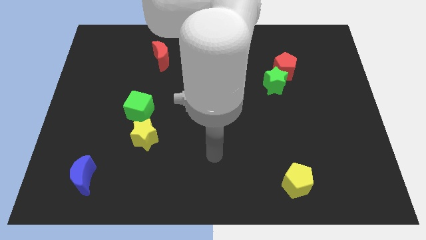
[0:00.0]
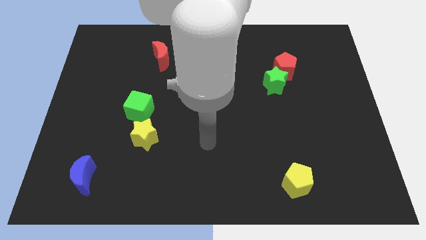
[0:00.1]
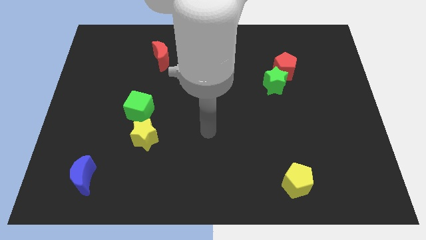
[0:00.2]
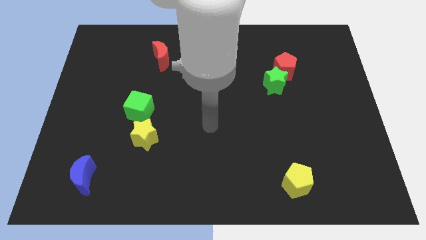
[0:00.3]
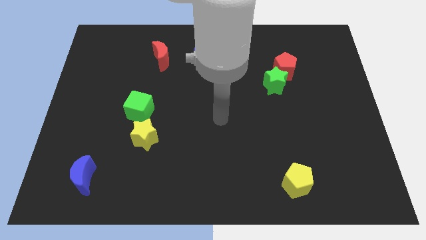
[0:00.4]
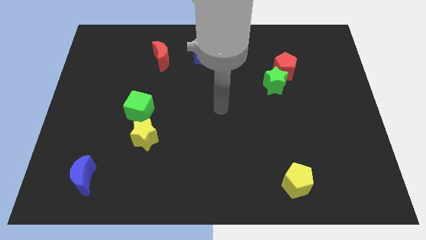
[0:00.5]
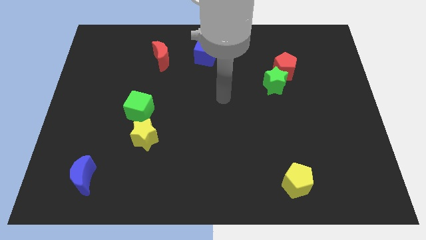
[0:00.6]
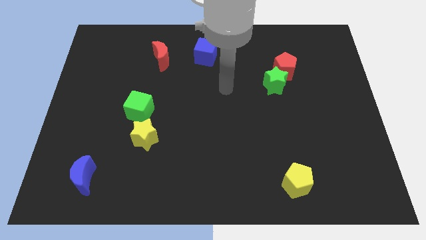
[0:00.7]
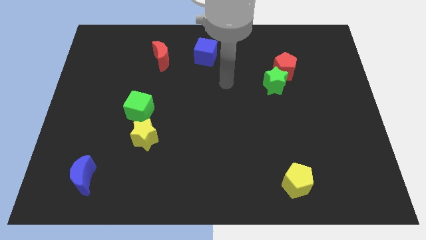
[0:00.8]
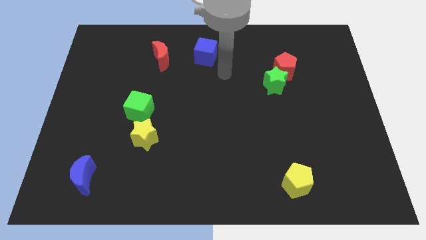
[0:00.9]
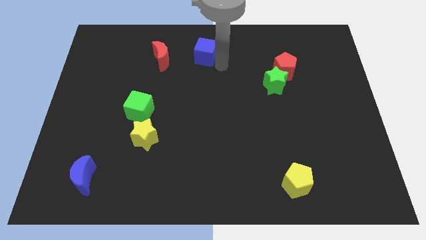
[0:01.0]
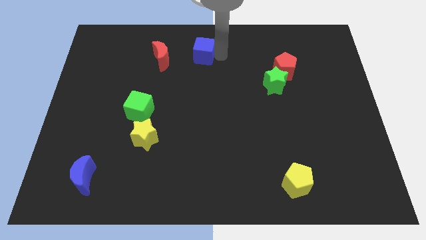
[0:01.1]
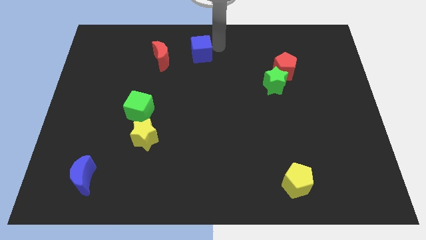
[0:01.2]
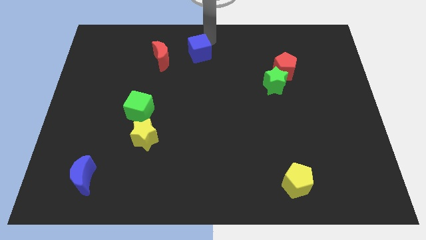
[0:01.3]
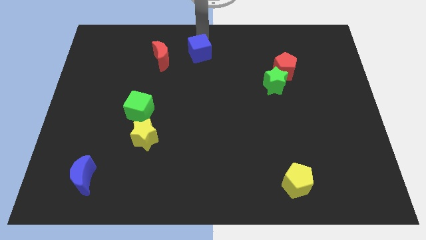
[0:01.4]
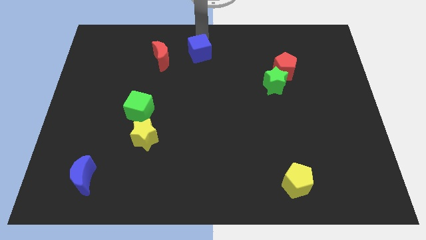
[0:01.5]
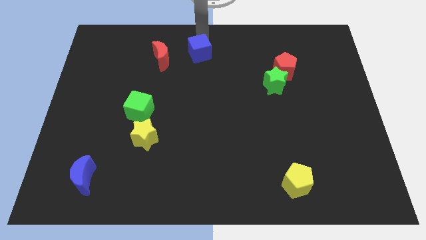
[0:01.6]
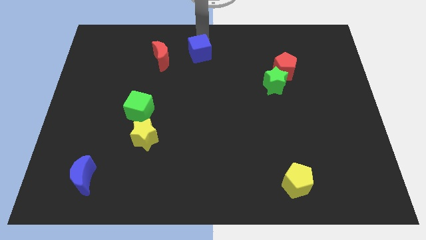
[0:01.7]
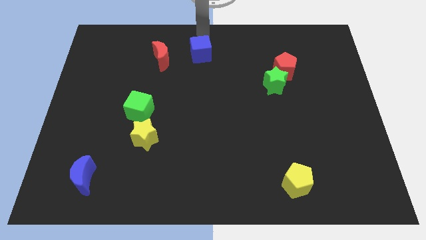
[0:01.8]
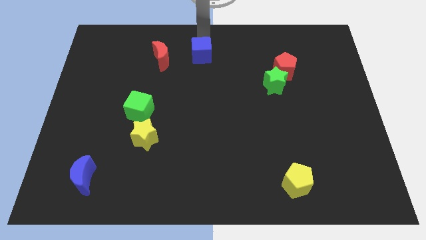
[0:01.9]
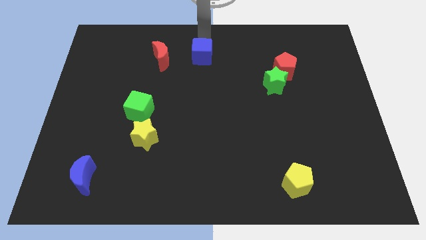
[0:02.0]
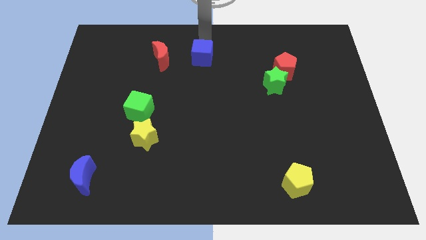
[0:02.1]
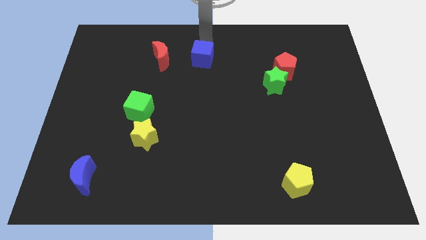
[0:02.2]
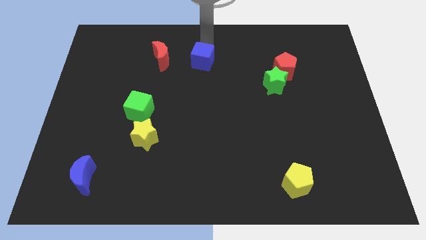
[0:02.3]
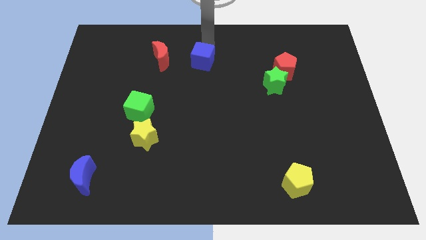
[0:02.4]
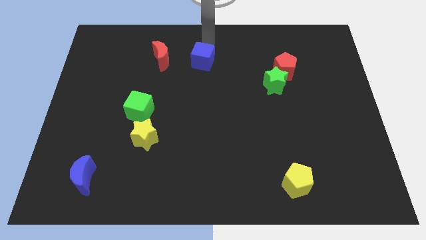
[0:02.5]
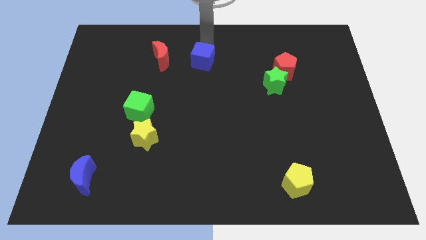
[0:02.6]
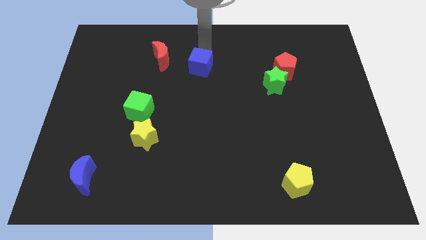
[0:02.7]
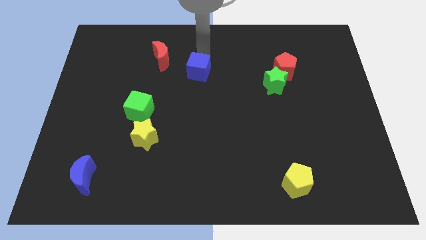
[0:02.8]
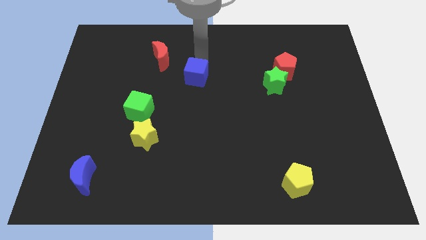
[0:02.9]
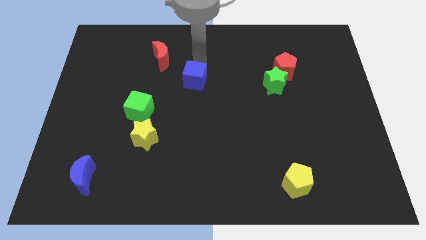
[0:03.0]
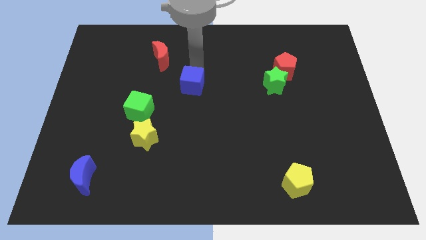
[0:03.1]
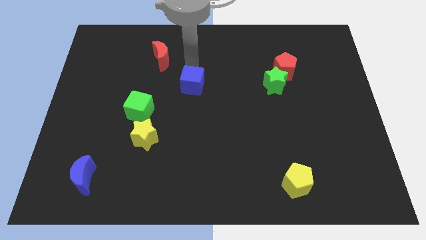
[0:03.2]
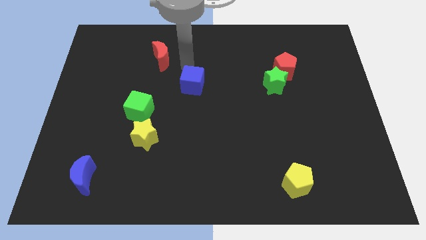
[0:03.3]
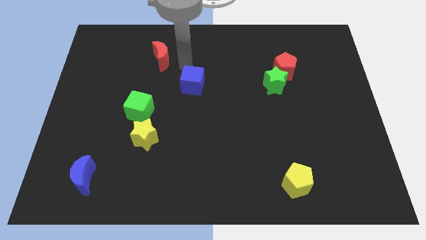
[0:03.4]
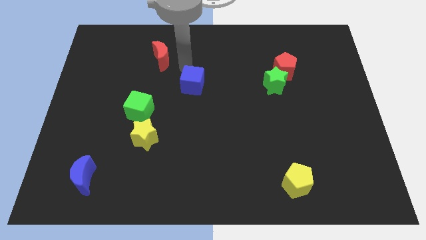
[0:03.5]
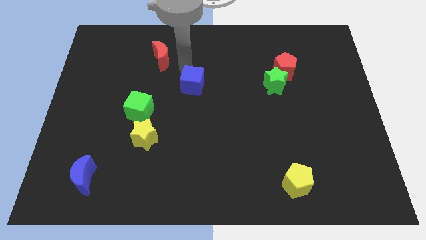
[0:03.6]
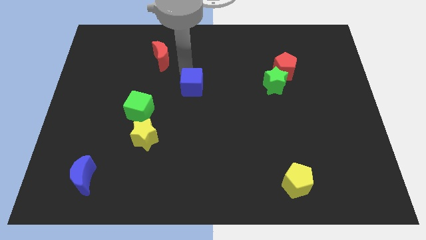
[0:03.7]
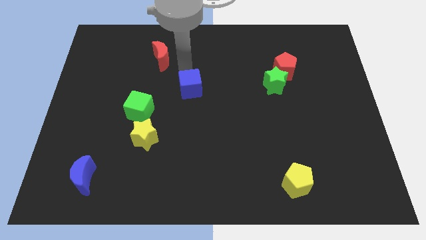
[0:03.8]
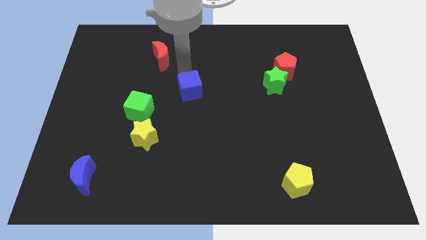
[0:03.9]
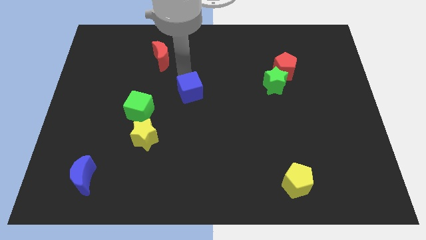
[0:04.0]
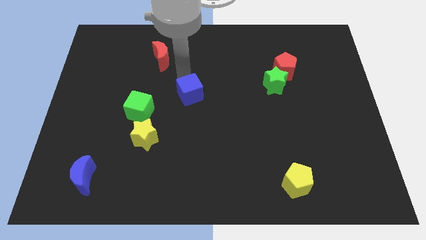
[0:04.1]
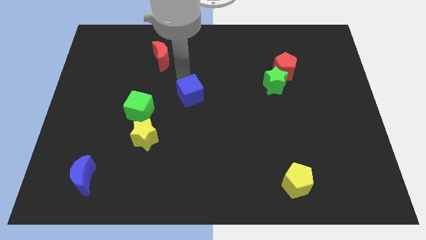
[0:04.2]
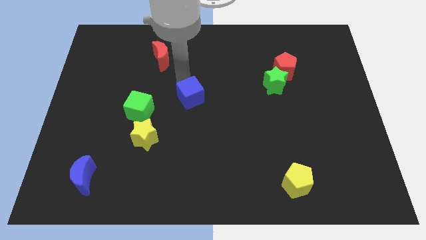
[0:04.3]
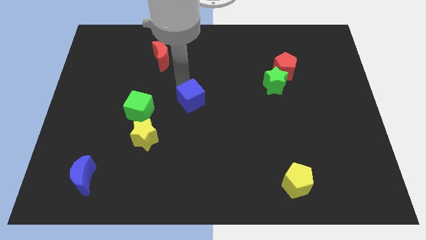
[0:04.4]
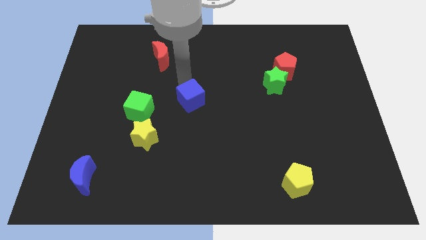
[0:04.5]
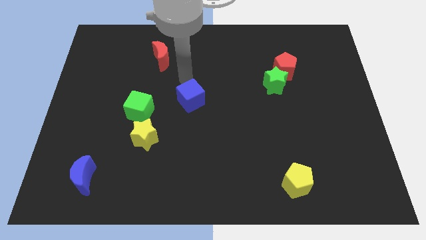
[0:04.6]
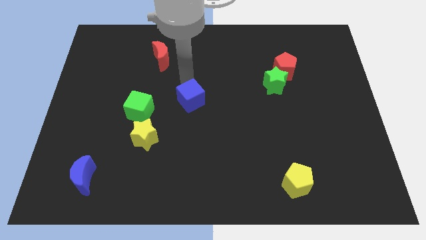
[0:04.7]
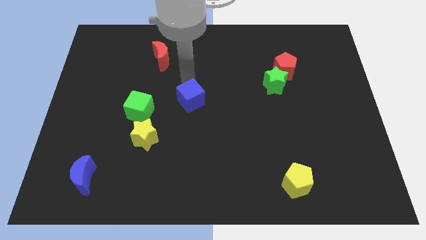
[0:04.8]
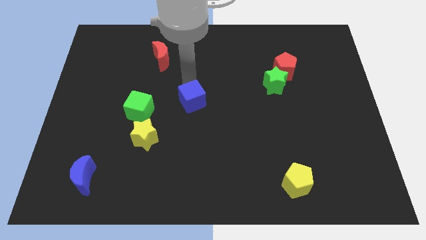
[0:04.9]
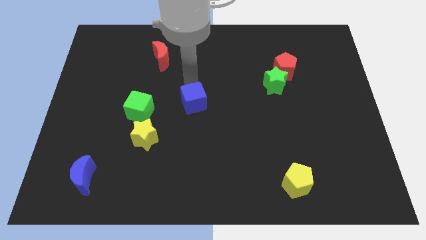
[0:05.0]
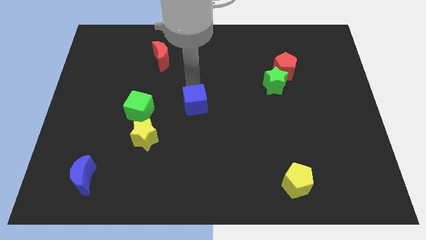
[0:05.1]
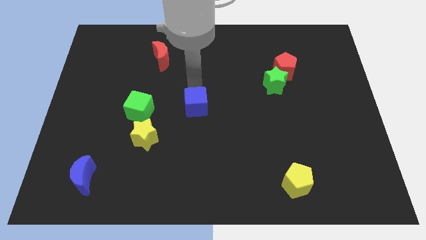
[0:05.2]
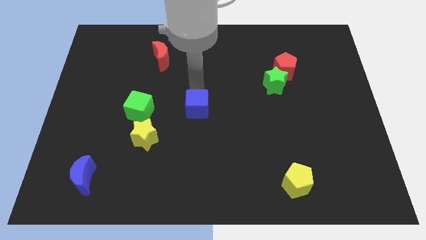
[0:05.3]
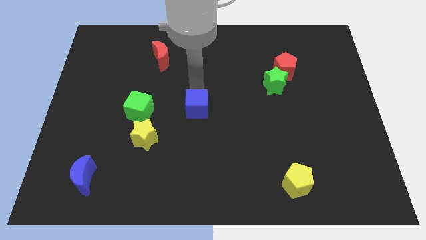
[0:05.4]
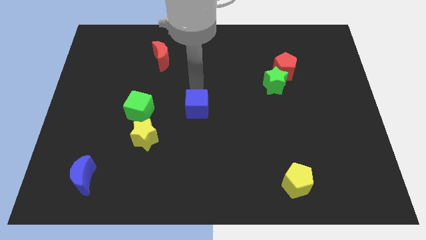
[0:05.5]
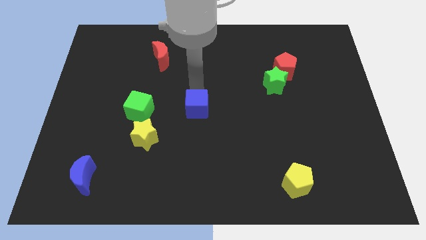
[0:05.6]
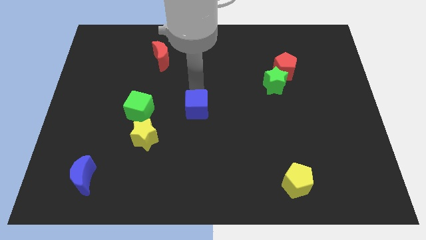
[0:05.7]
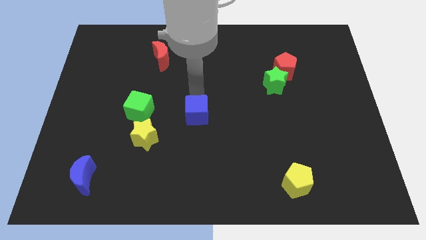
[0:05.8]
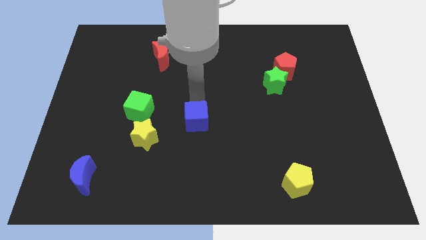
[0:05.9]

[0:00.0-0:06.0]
move the blue cube just right of the yellow star
